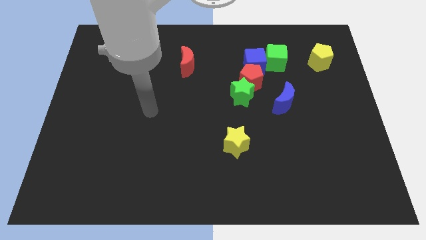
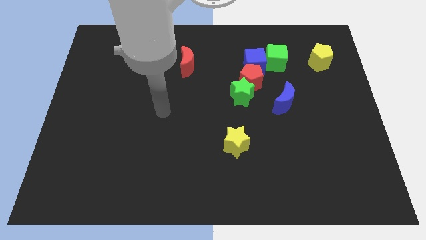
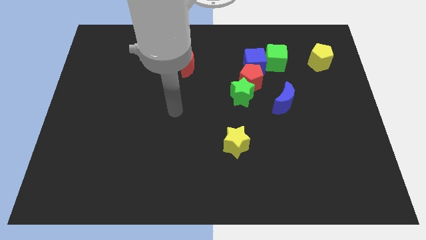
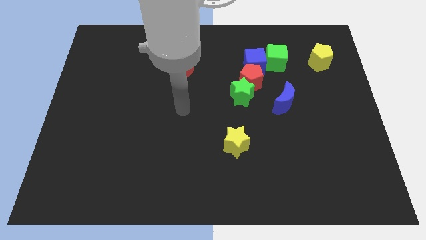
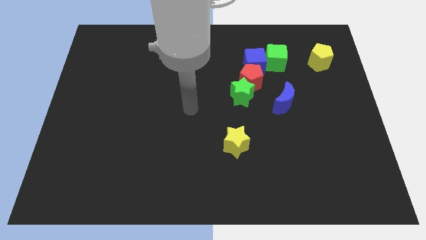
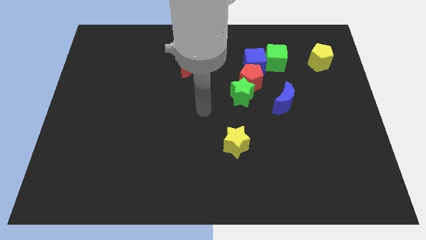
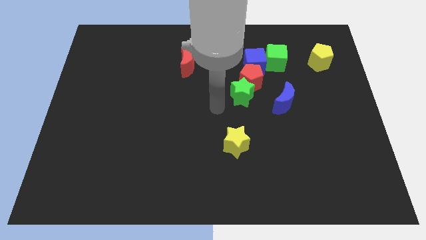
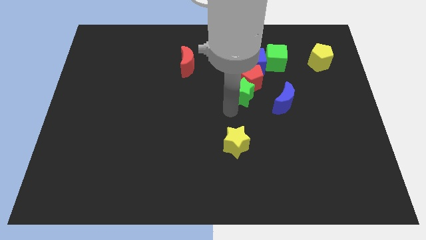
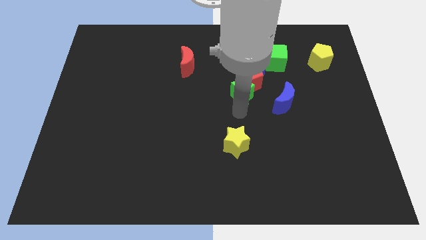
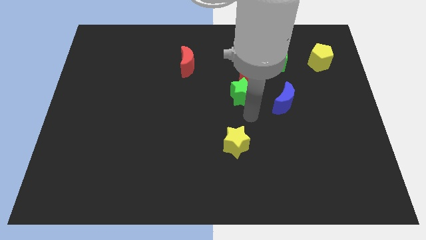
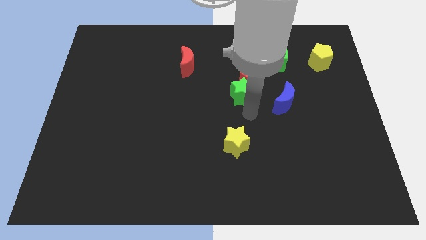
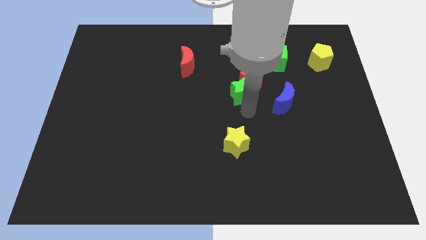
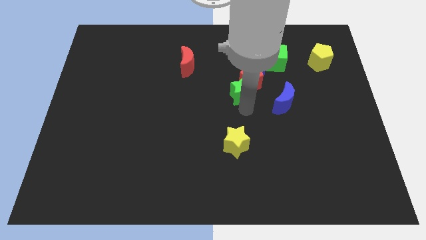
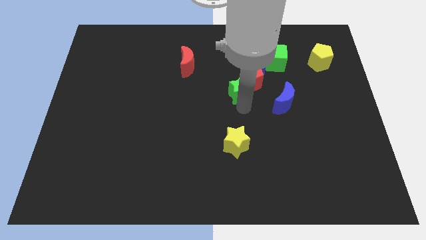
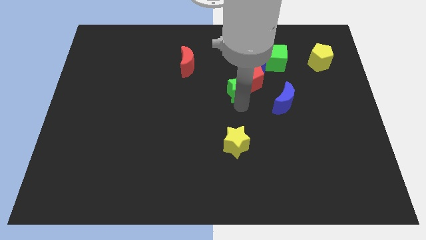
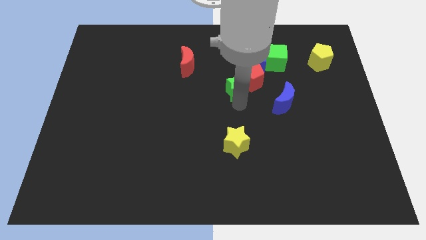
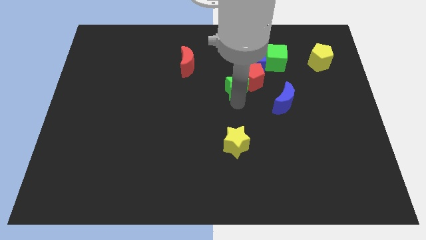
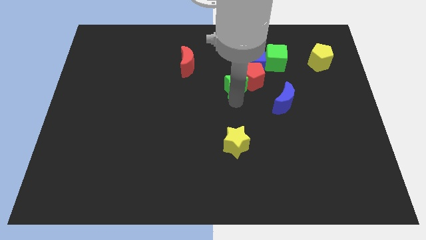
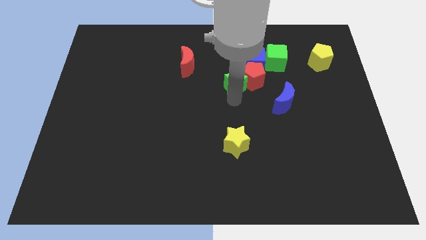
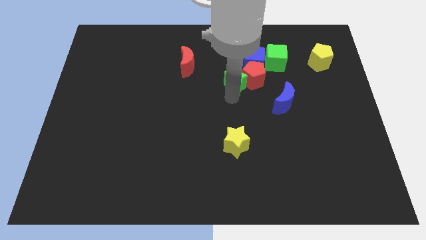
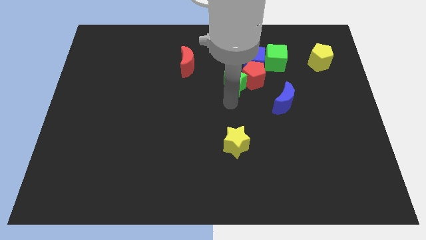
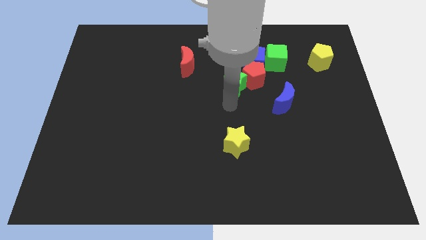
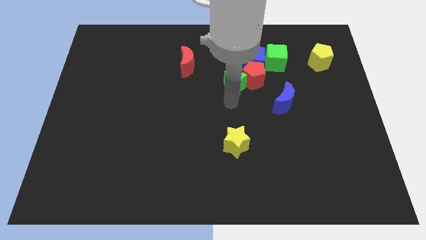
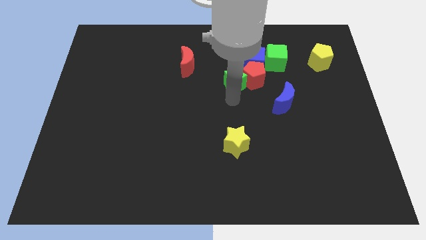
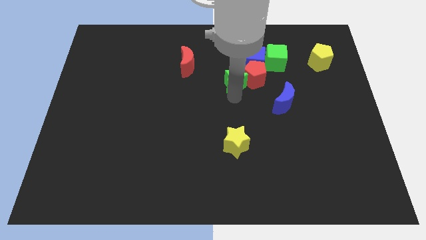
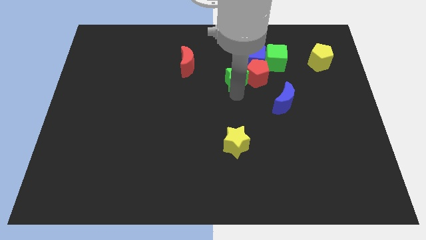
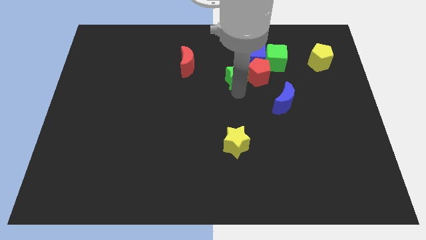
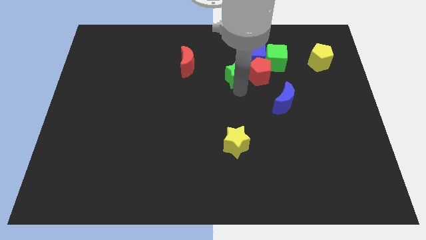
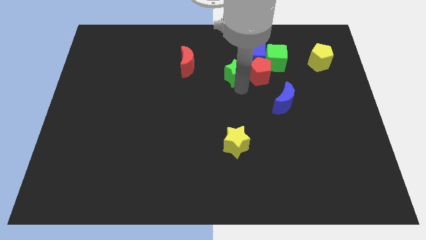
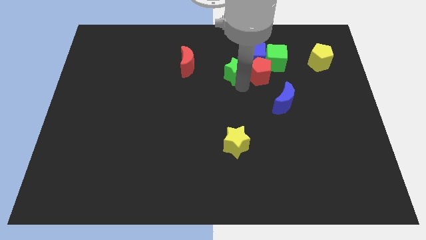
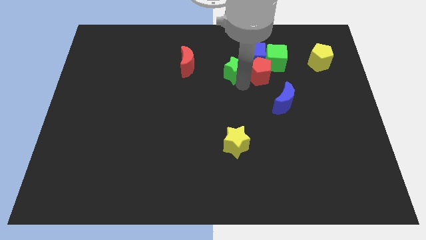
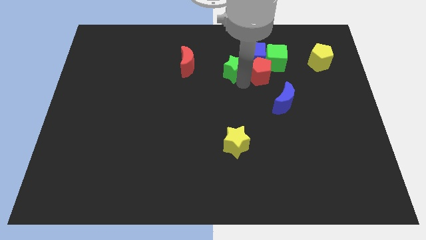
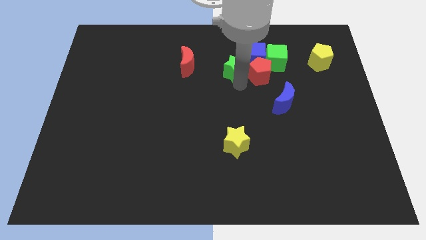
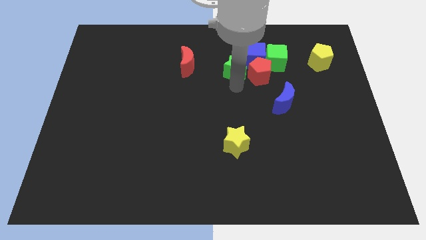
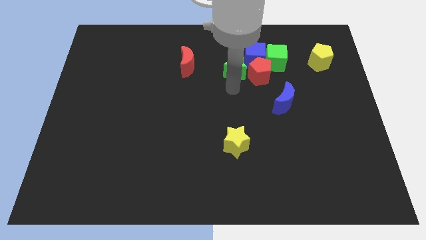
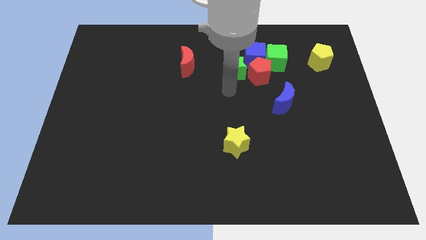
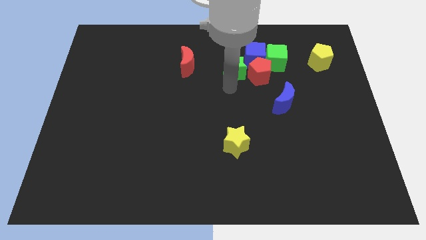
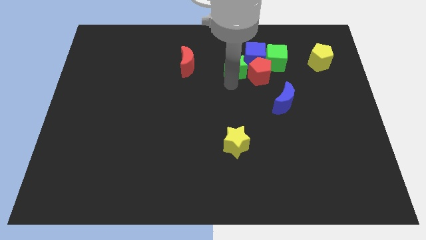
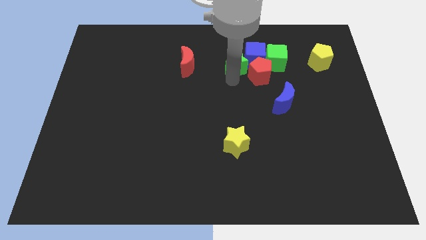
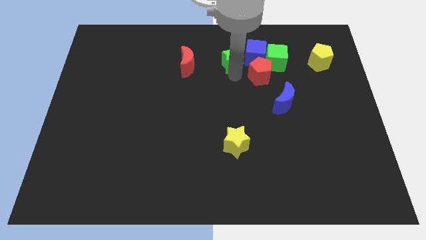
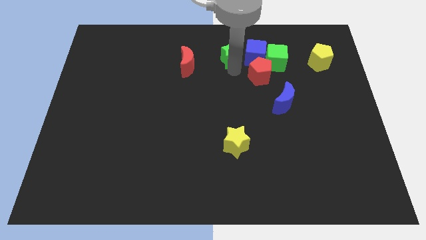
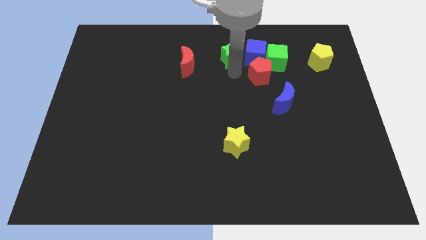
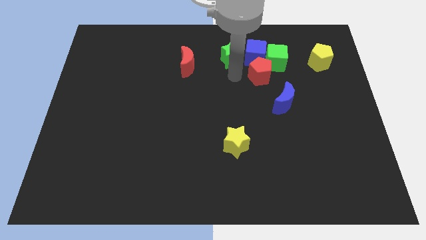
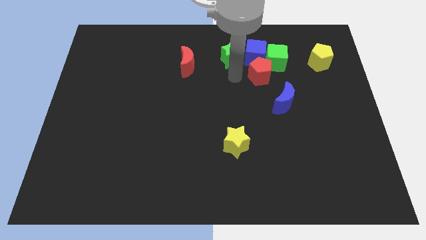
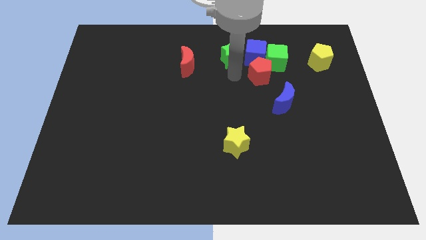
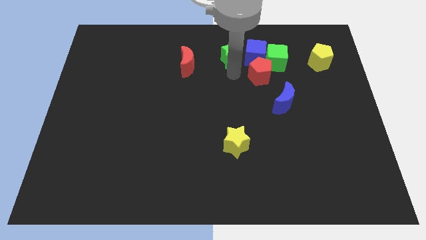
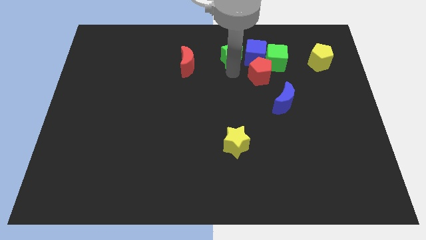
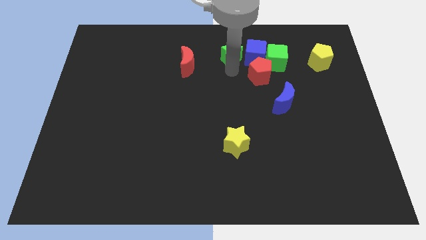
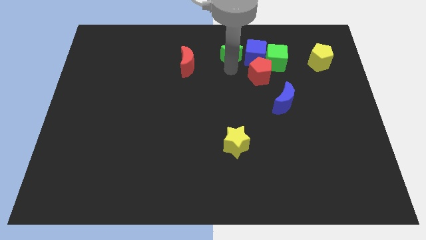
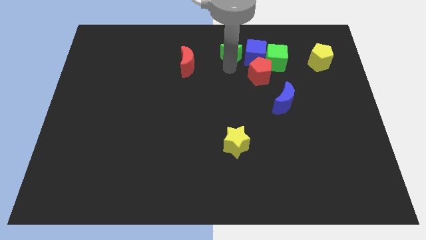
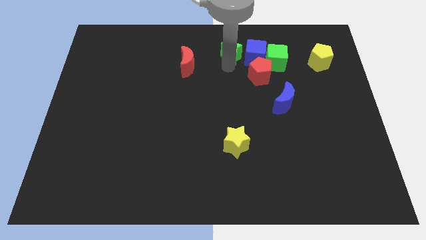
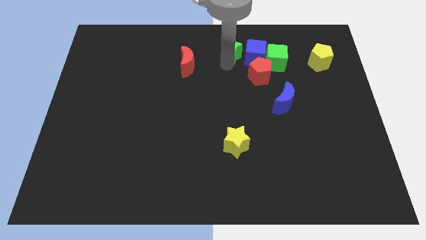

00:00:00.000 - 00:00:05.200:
push the green star to the top side

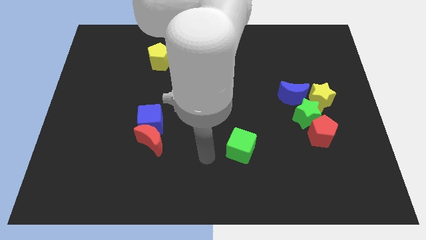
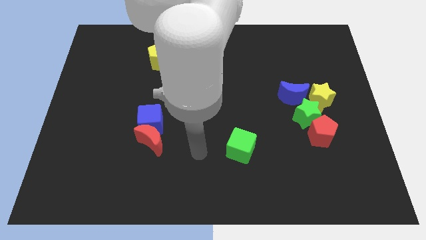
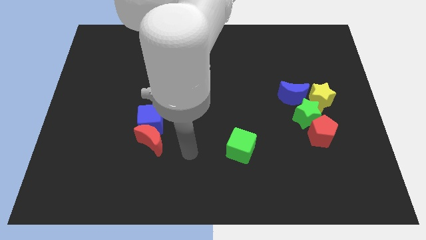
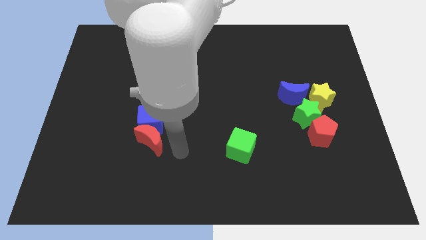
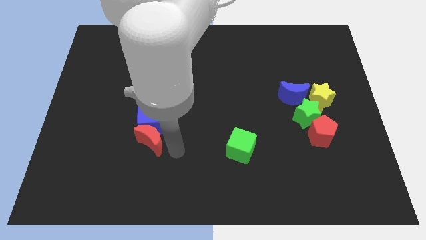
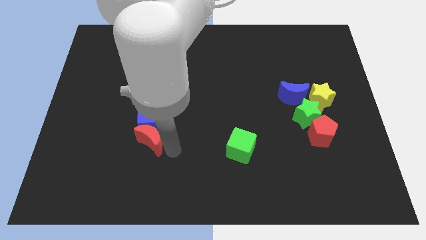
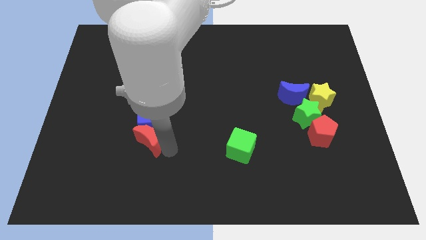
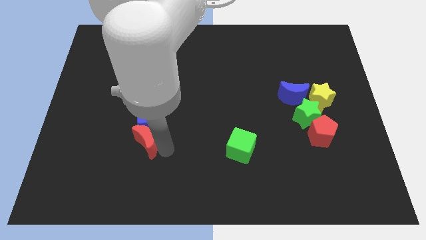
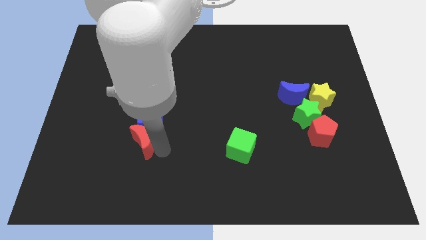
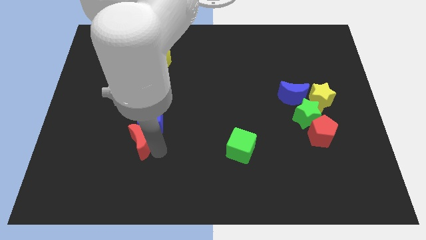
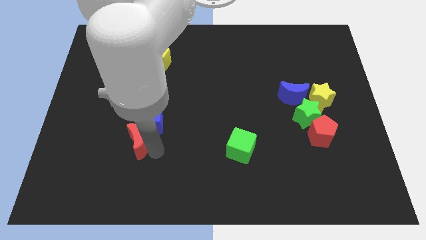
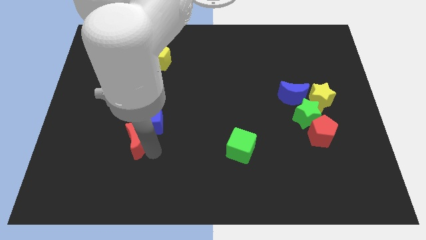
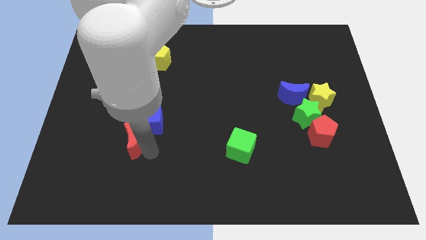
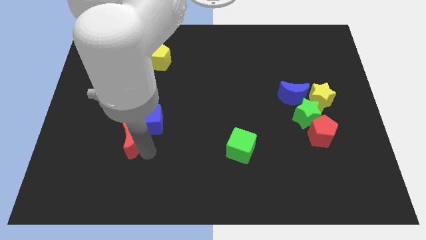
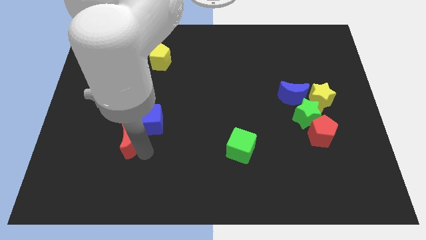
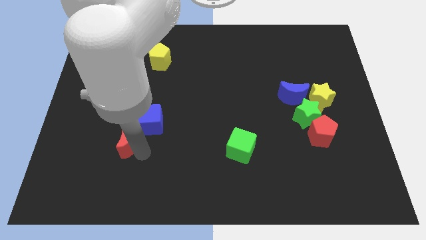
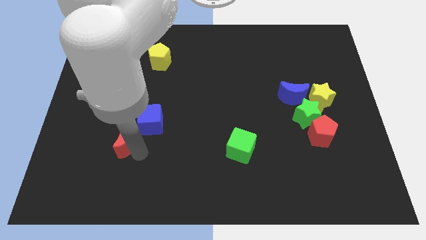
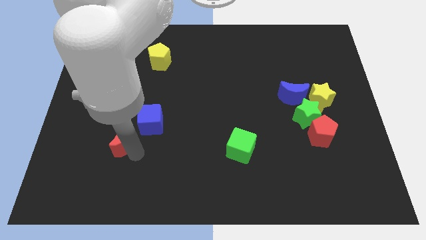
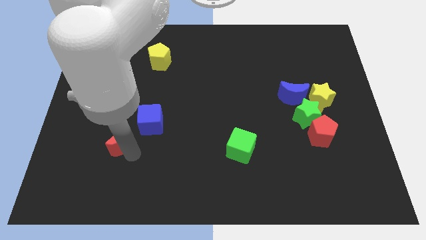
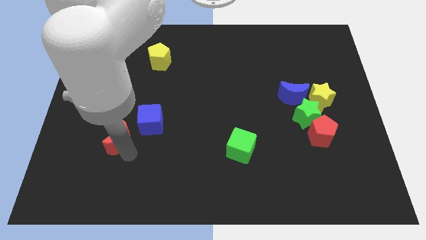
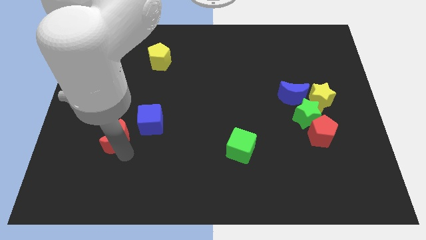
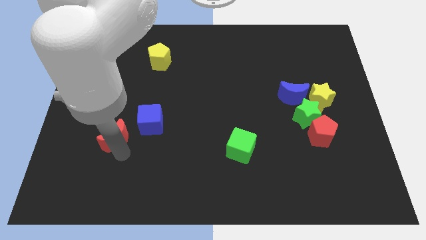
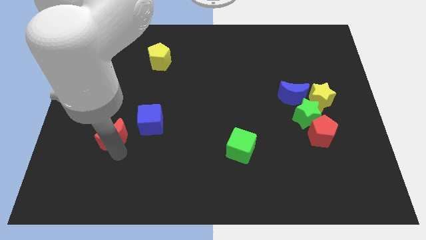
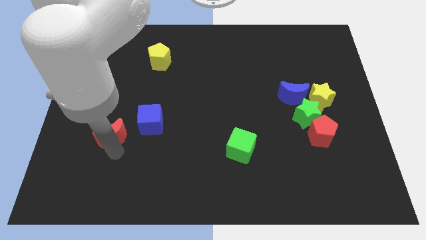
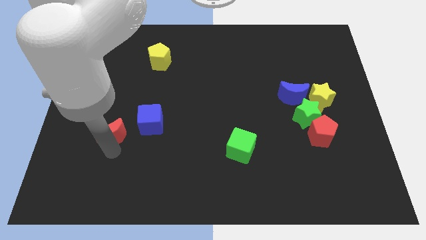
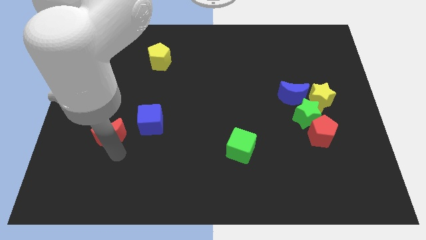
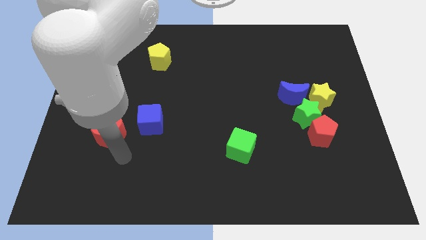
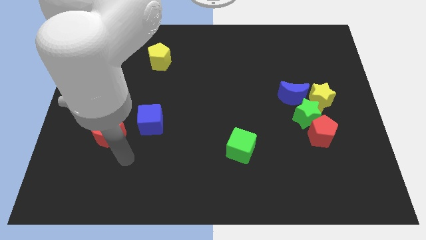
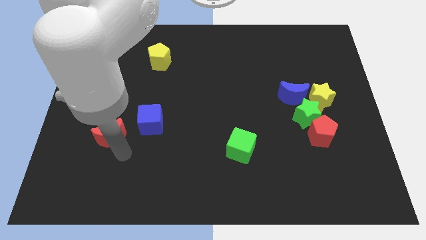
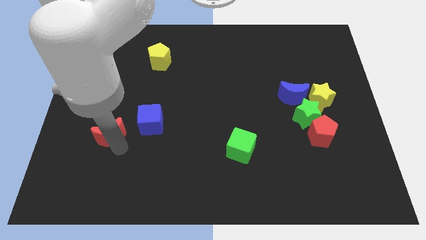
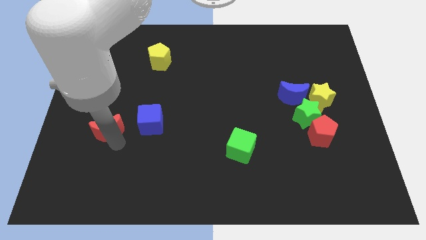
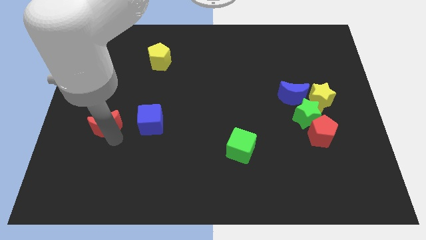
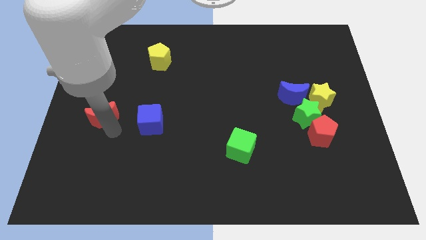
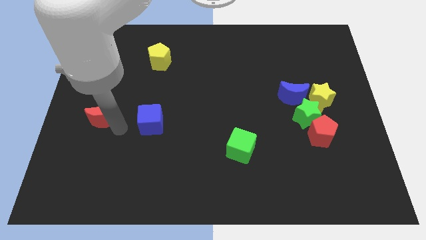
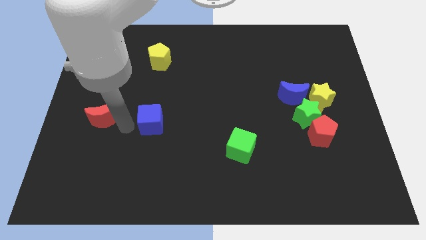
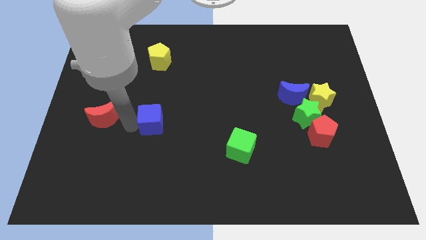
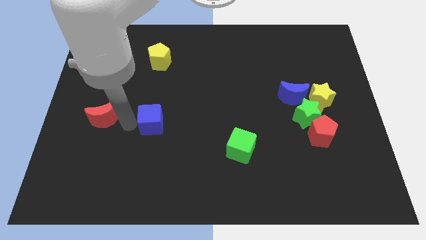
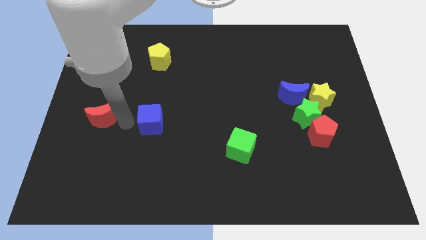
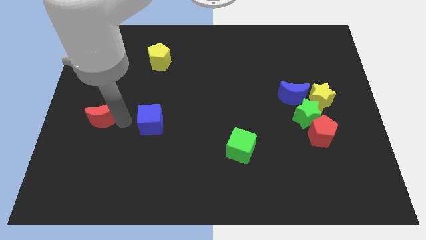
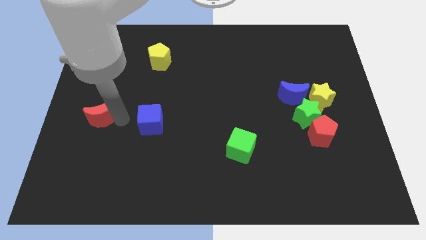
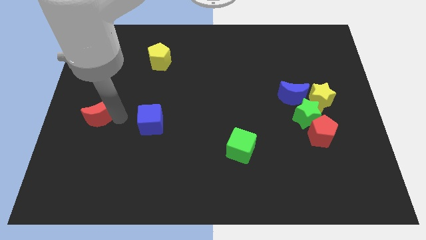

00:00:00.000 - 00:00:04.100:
slide the red moon to the center left
